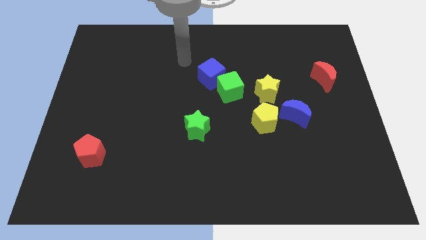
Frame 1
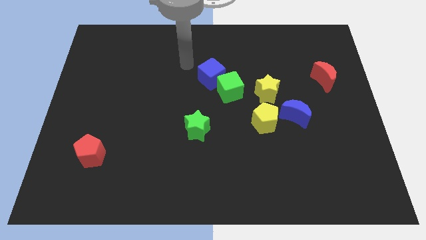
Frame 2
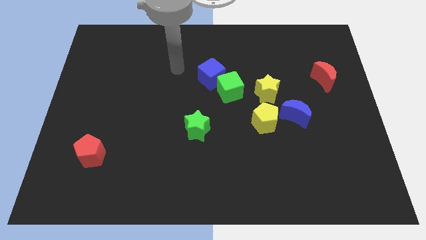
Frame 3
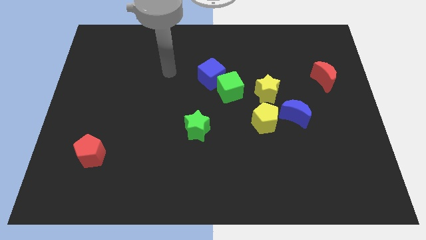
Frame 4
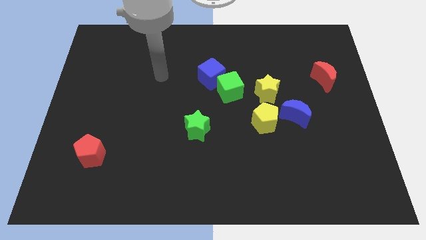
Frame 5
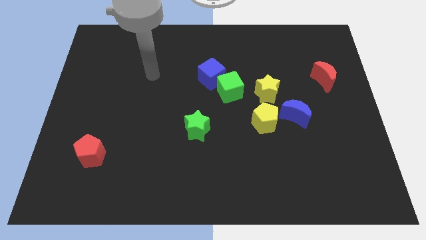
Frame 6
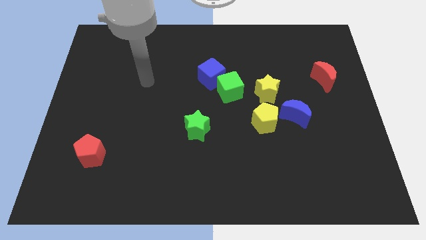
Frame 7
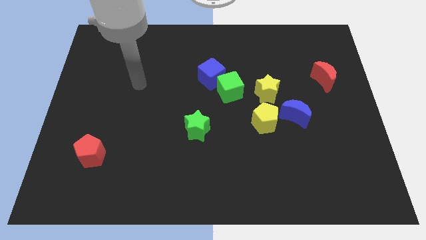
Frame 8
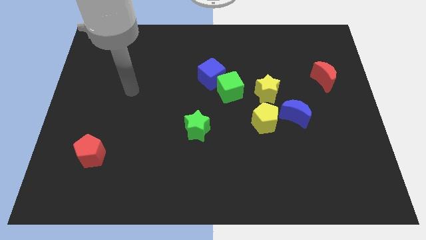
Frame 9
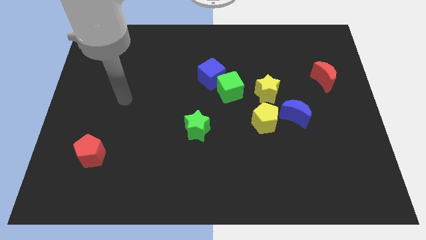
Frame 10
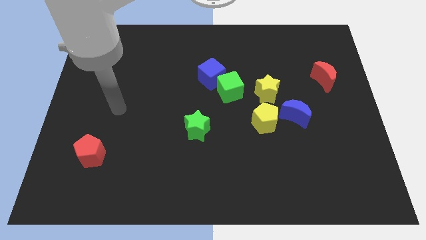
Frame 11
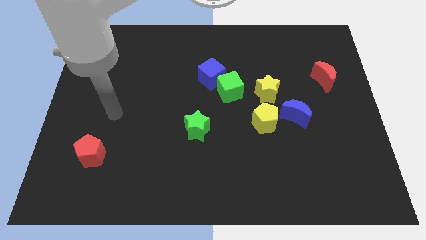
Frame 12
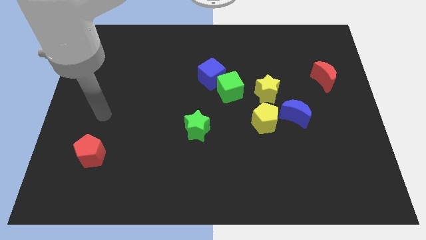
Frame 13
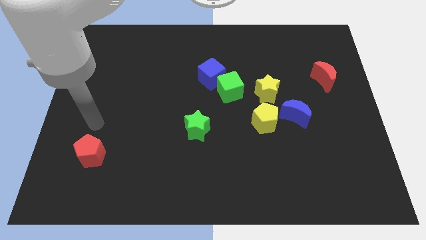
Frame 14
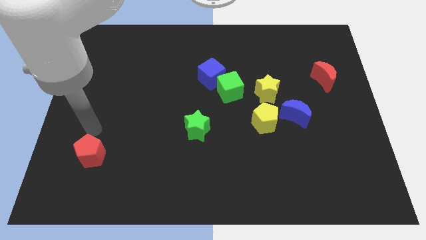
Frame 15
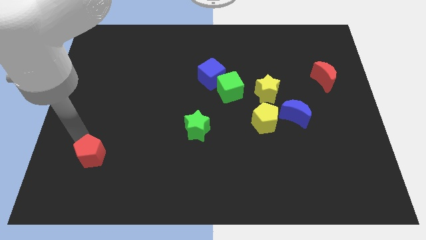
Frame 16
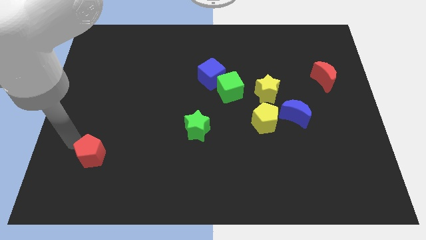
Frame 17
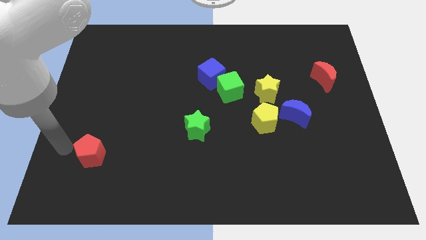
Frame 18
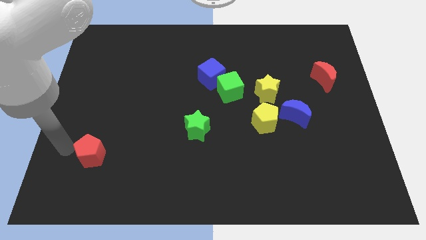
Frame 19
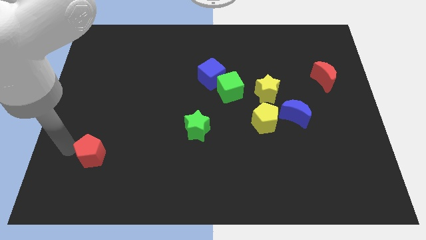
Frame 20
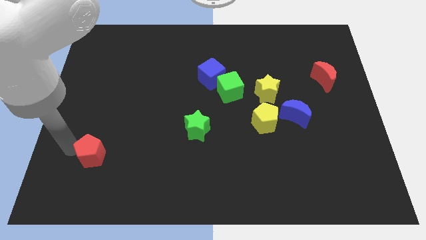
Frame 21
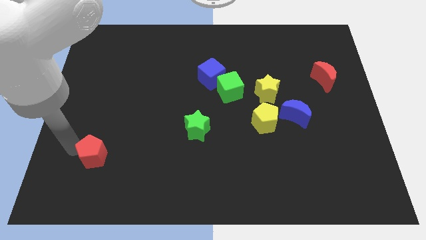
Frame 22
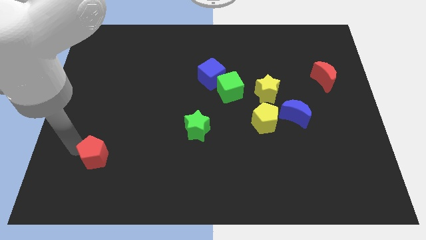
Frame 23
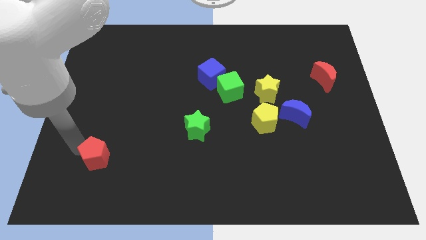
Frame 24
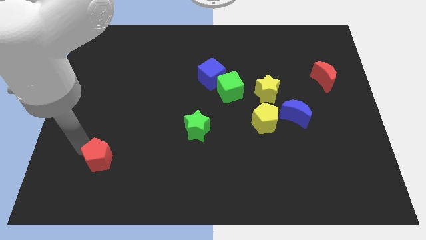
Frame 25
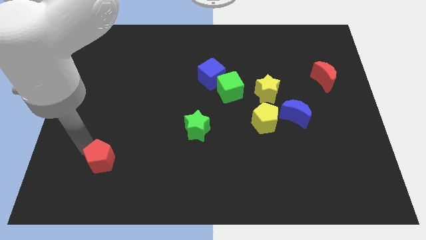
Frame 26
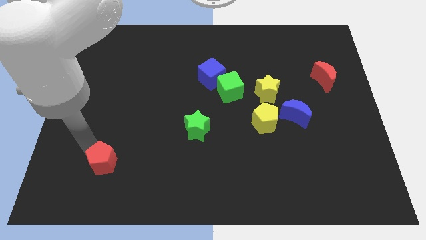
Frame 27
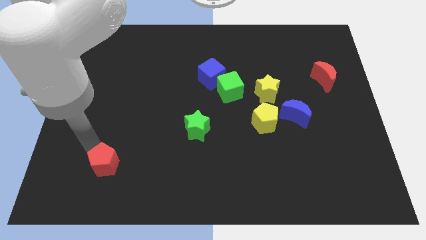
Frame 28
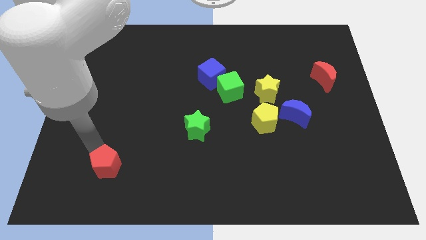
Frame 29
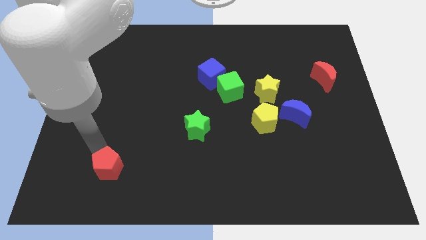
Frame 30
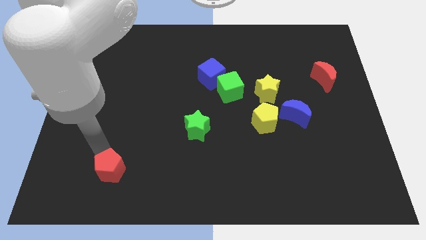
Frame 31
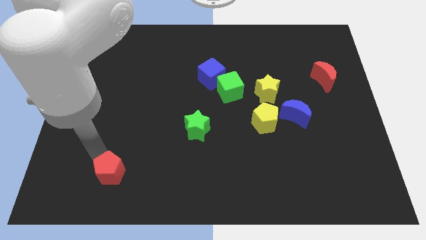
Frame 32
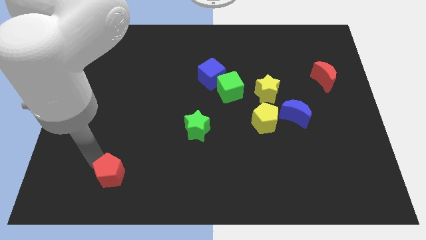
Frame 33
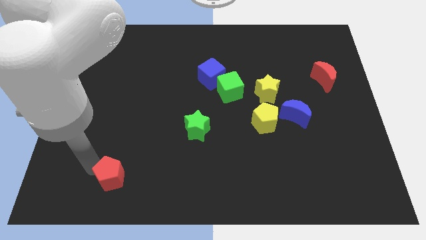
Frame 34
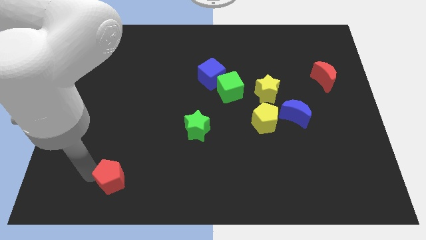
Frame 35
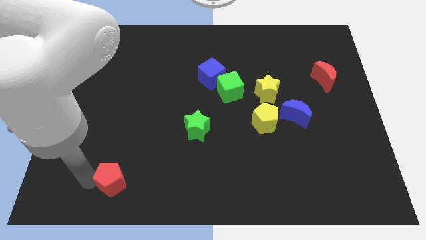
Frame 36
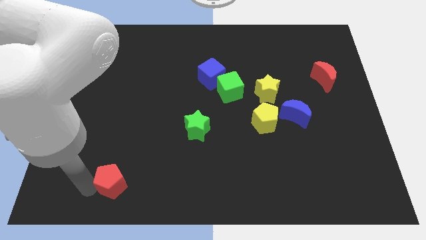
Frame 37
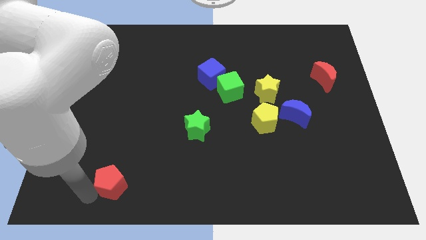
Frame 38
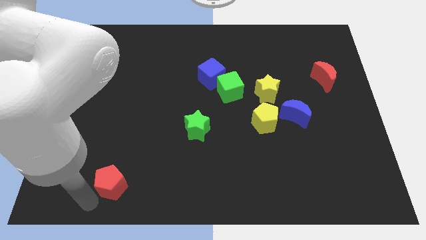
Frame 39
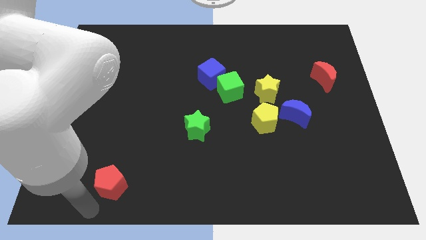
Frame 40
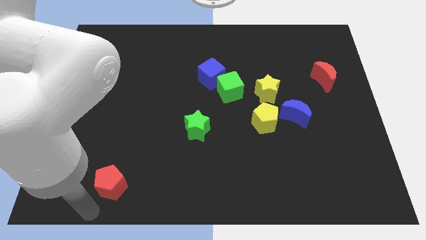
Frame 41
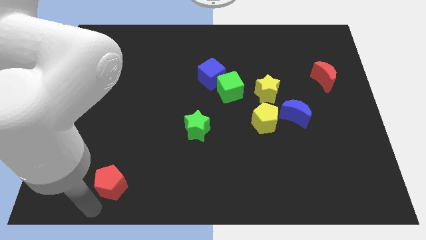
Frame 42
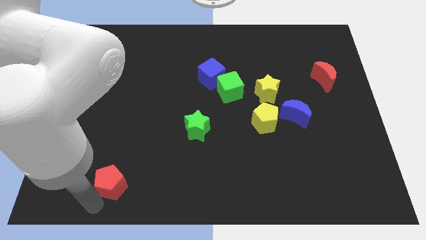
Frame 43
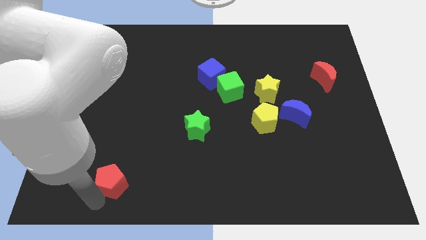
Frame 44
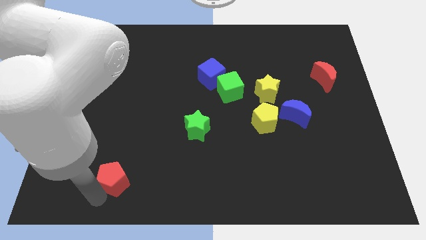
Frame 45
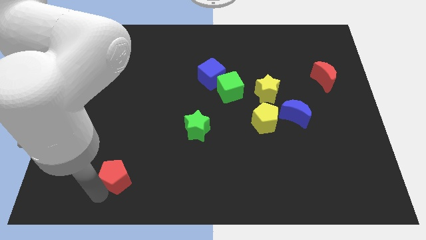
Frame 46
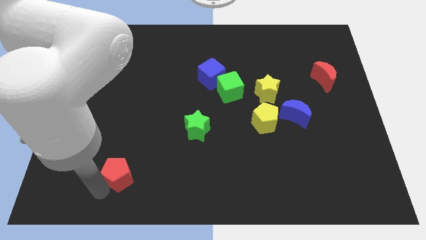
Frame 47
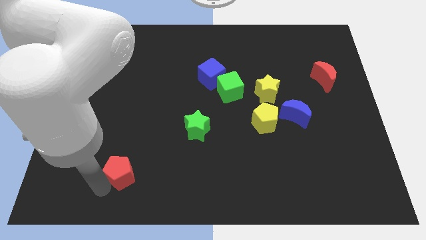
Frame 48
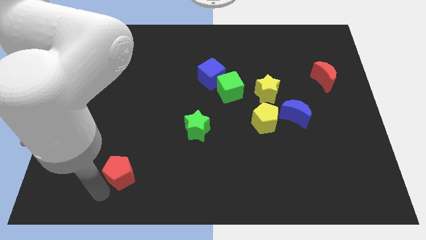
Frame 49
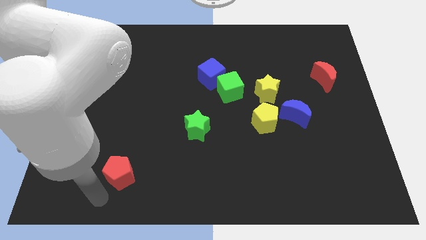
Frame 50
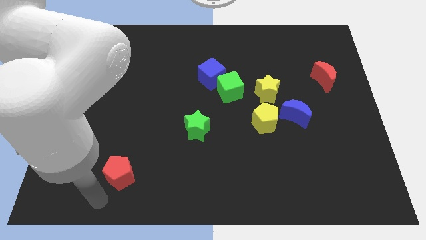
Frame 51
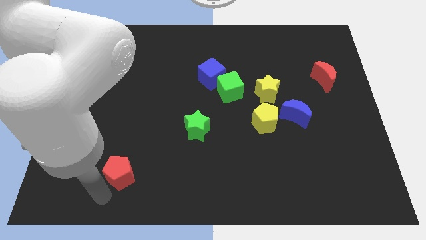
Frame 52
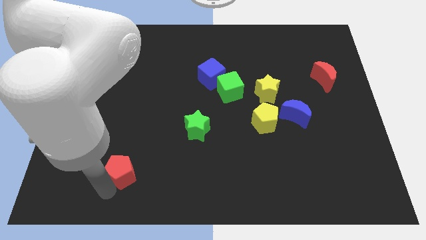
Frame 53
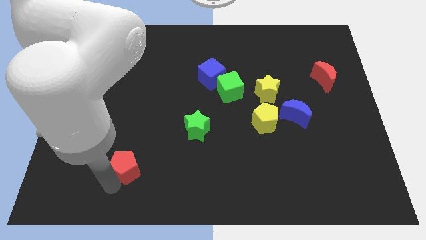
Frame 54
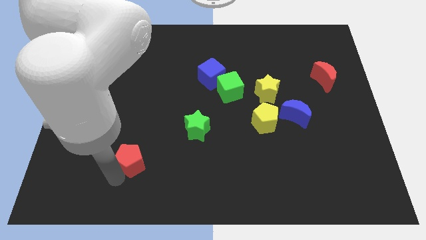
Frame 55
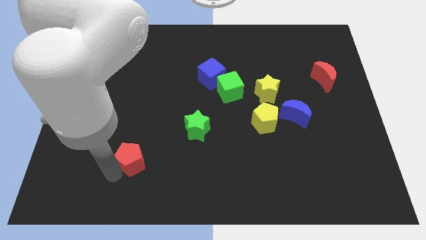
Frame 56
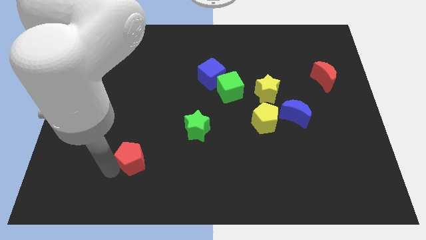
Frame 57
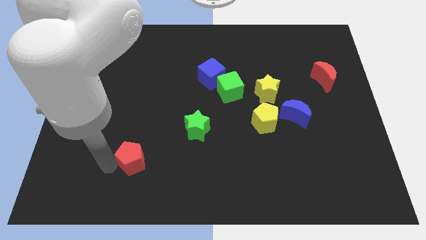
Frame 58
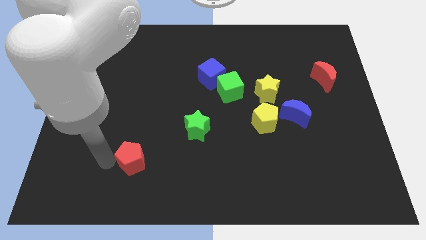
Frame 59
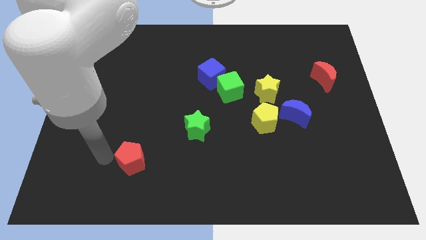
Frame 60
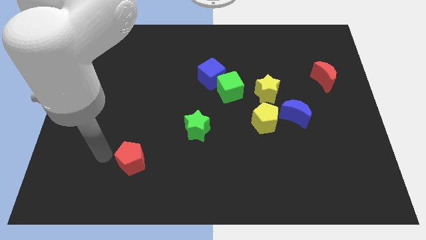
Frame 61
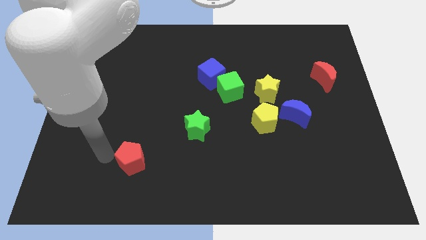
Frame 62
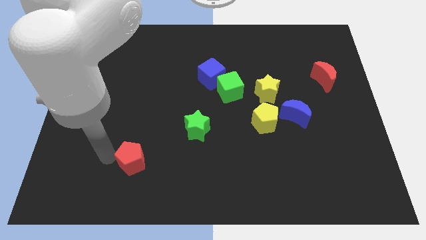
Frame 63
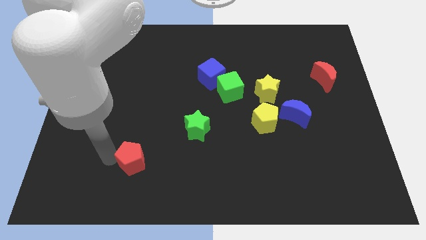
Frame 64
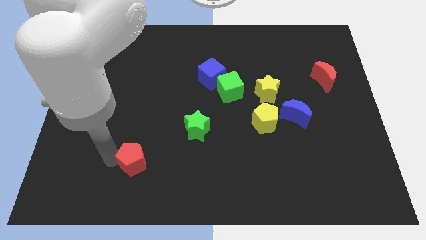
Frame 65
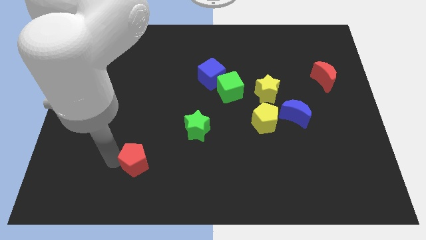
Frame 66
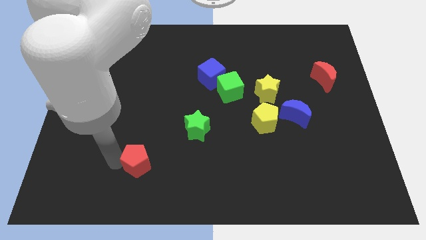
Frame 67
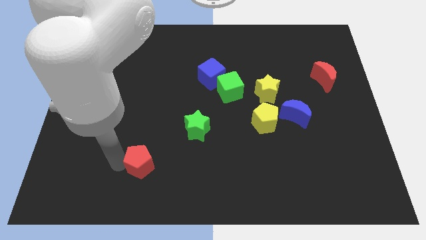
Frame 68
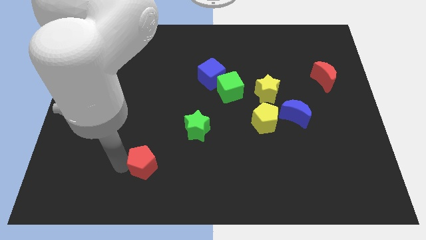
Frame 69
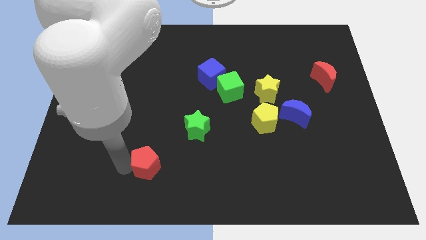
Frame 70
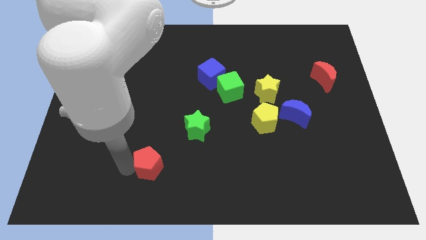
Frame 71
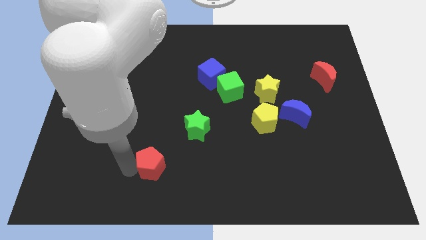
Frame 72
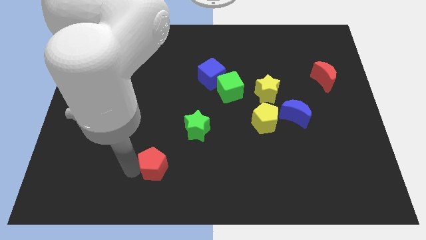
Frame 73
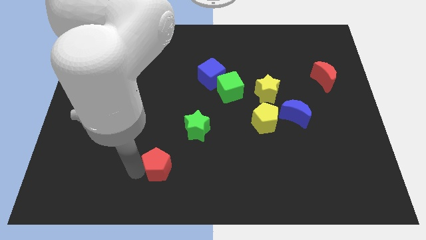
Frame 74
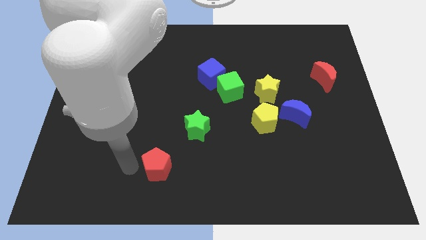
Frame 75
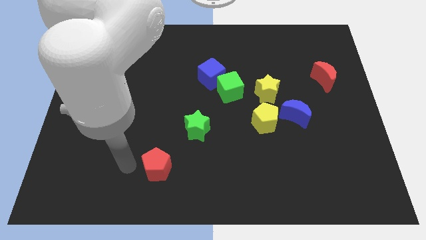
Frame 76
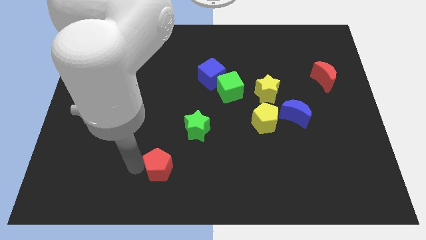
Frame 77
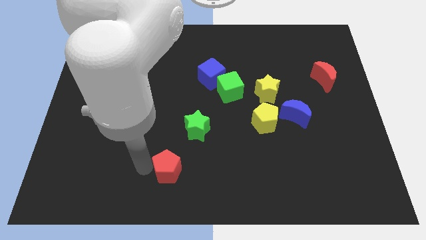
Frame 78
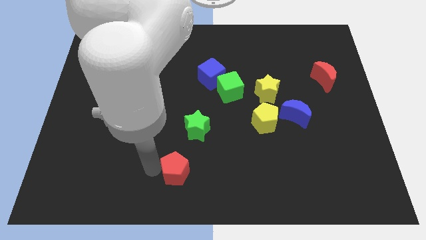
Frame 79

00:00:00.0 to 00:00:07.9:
move the red pentagon to the bottom of the green star
